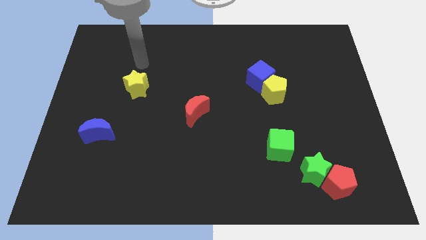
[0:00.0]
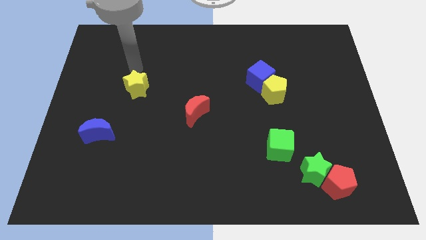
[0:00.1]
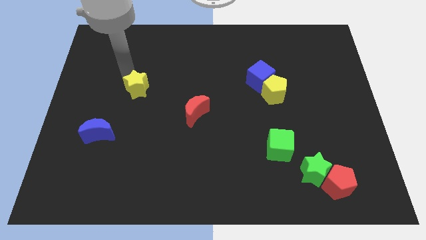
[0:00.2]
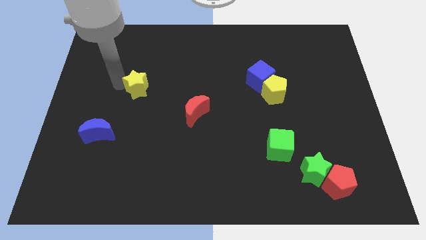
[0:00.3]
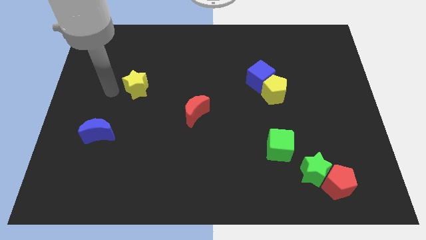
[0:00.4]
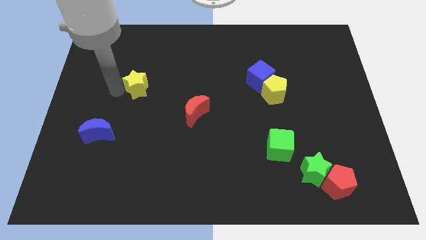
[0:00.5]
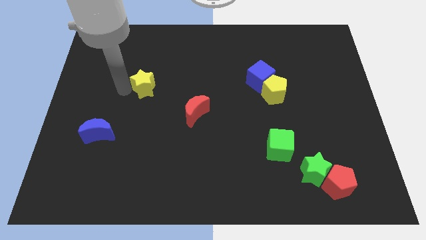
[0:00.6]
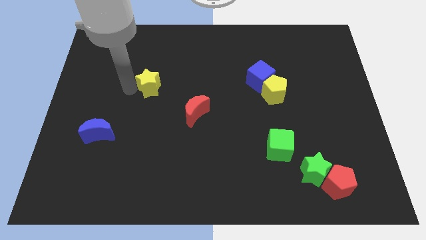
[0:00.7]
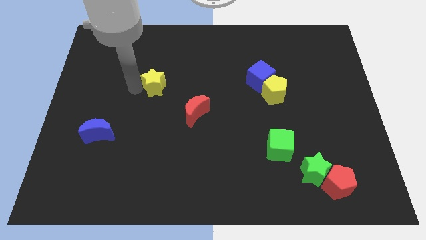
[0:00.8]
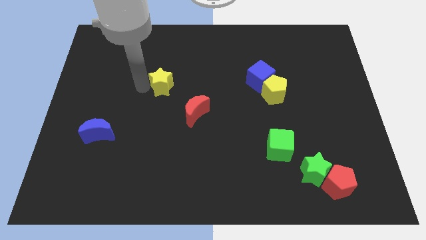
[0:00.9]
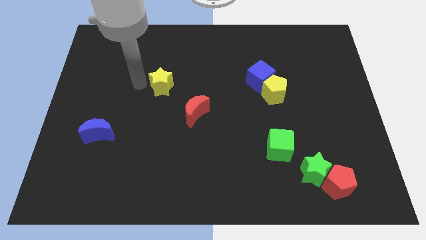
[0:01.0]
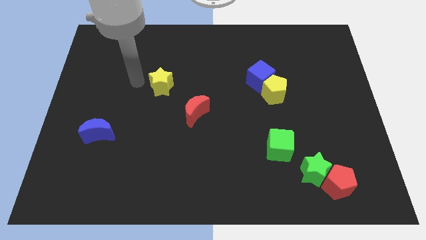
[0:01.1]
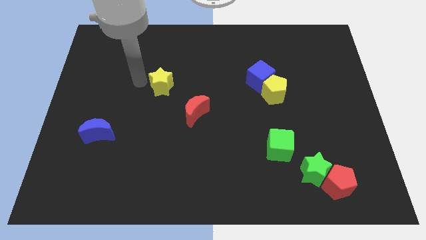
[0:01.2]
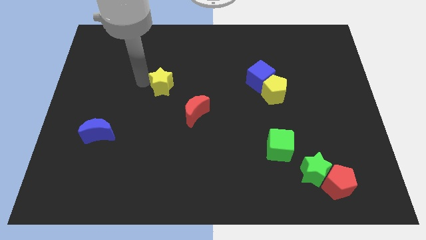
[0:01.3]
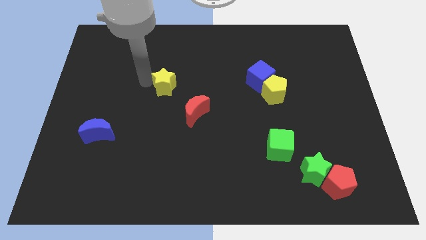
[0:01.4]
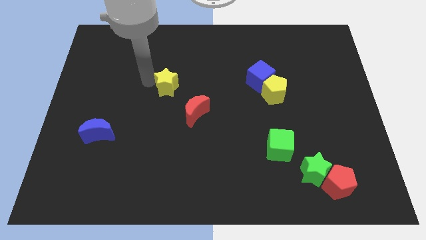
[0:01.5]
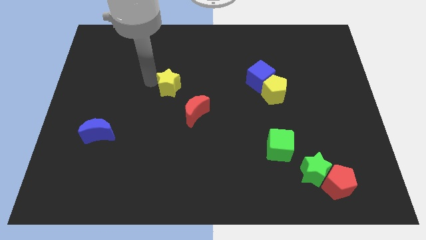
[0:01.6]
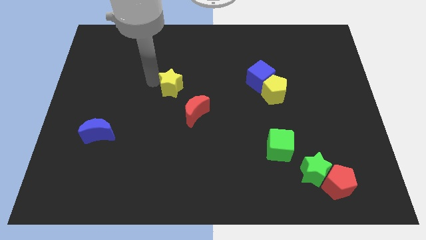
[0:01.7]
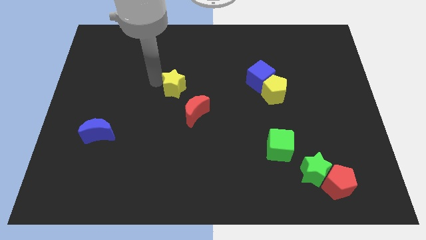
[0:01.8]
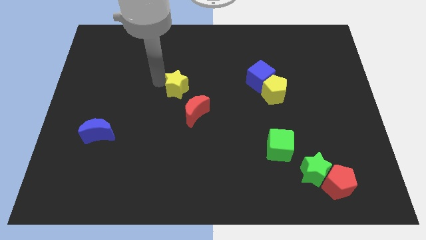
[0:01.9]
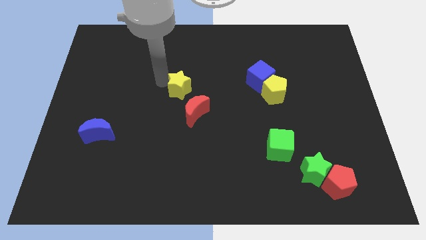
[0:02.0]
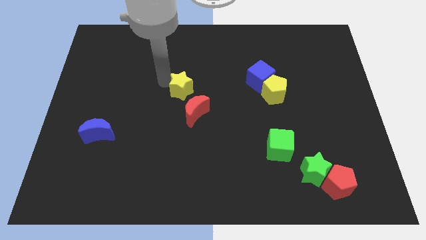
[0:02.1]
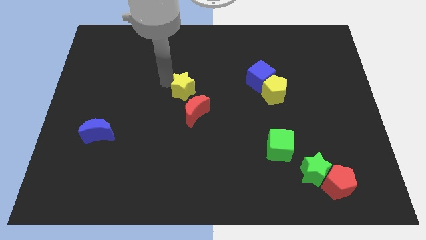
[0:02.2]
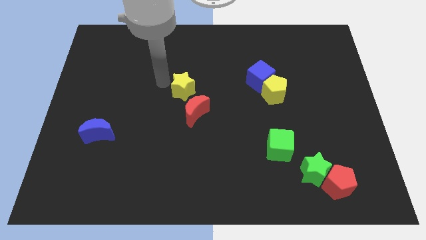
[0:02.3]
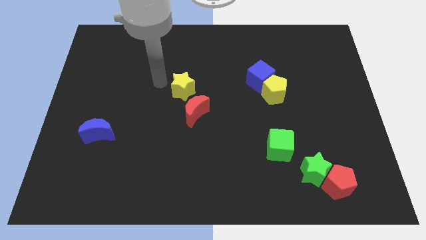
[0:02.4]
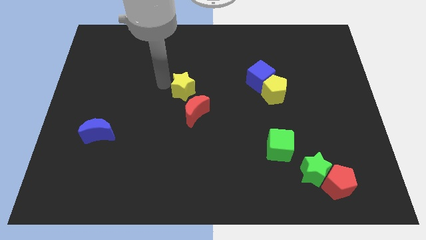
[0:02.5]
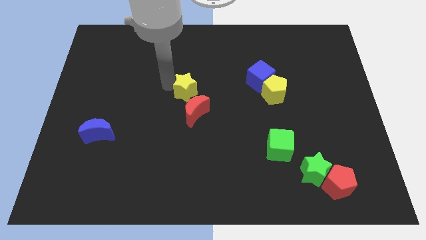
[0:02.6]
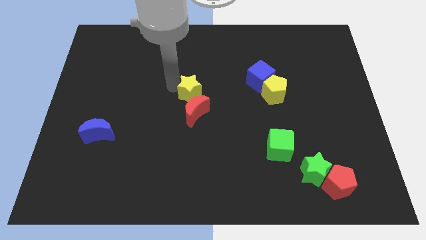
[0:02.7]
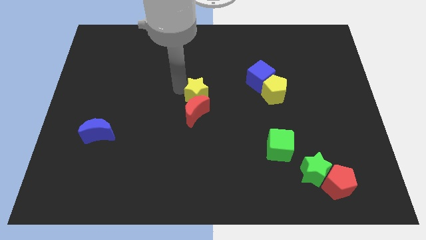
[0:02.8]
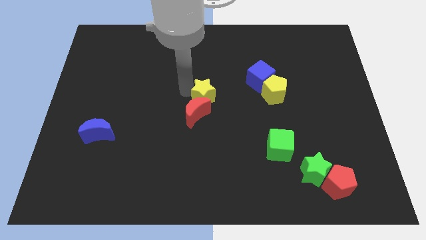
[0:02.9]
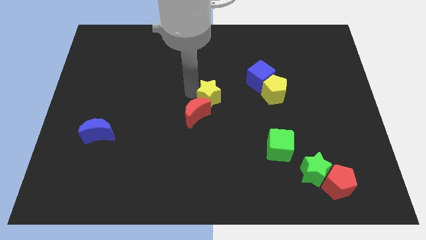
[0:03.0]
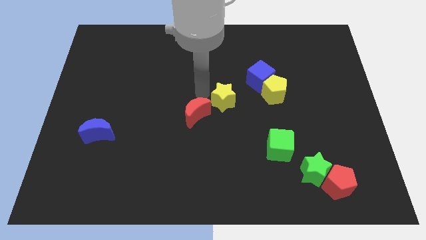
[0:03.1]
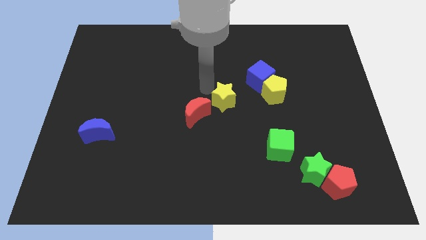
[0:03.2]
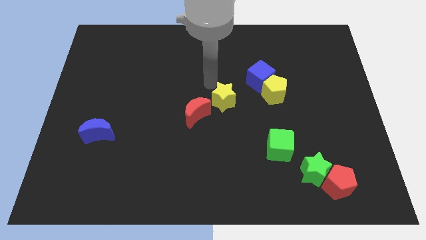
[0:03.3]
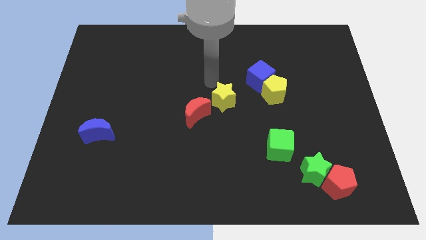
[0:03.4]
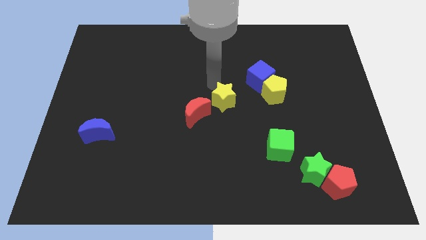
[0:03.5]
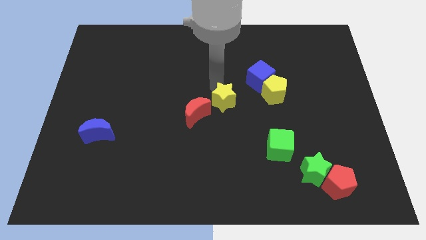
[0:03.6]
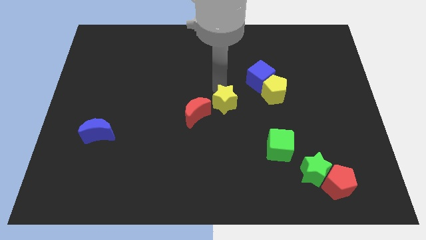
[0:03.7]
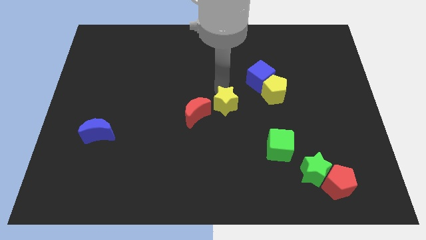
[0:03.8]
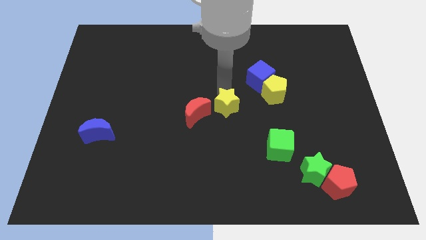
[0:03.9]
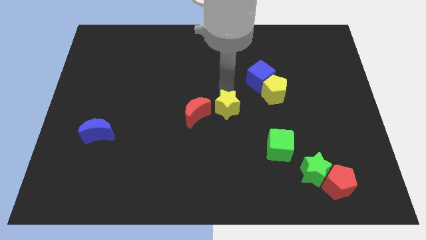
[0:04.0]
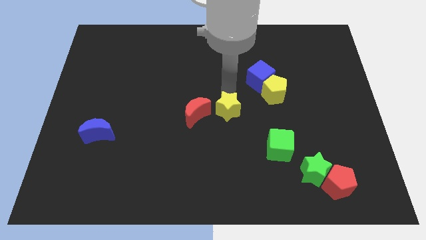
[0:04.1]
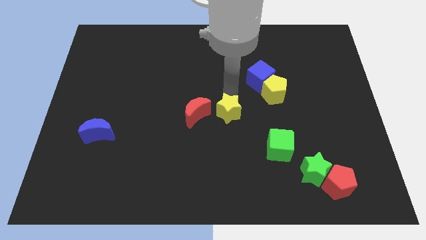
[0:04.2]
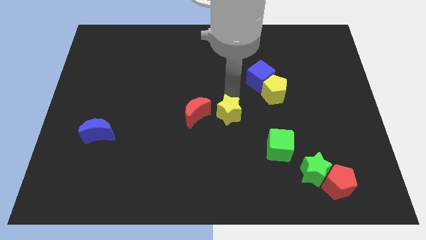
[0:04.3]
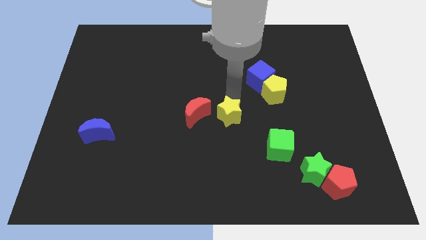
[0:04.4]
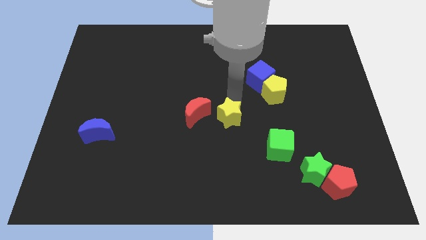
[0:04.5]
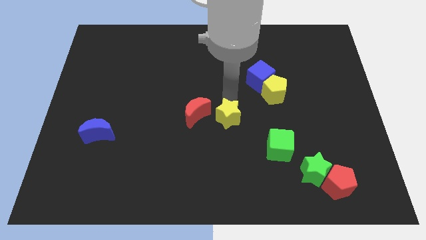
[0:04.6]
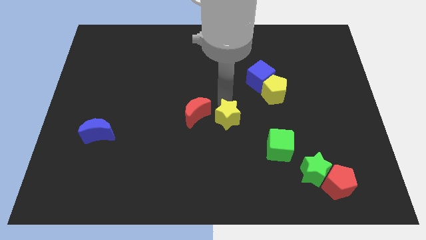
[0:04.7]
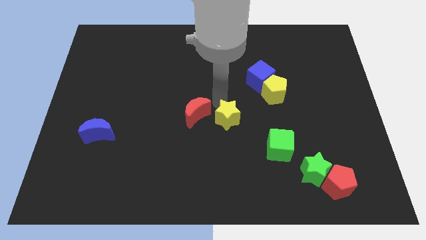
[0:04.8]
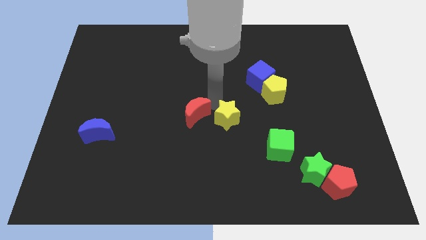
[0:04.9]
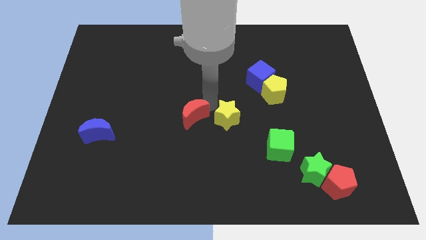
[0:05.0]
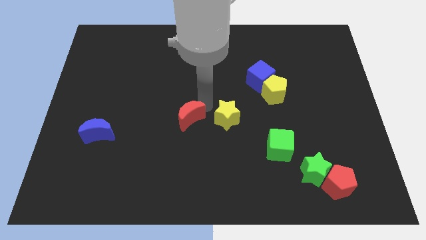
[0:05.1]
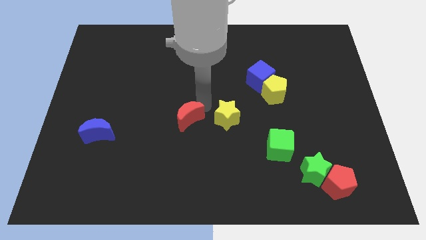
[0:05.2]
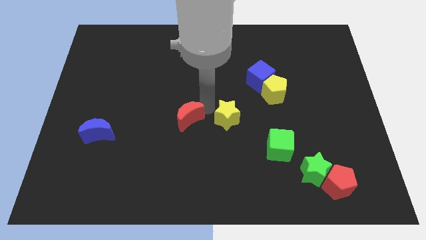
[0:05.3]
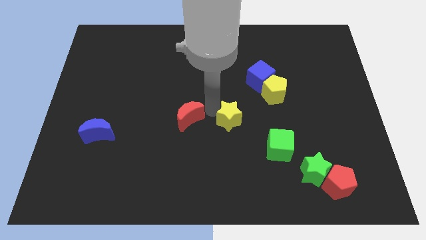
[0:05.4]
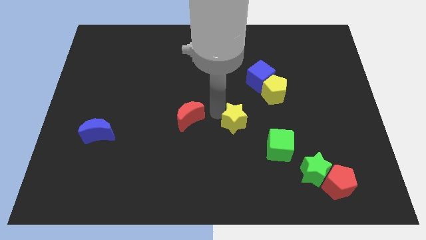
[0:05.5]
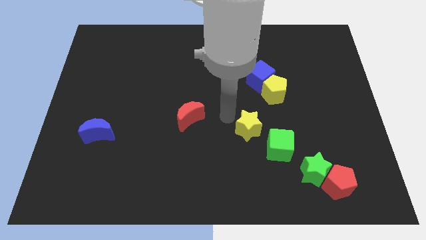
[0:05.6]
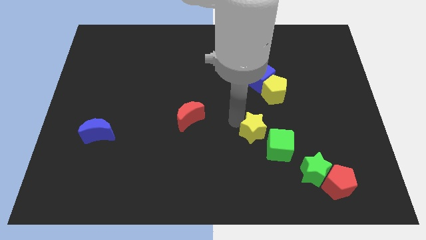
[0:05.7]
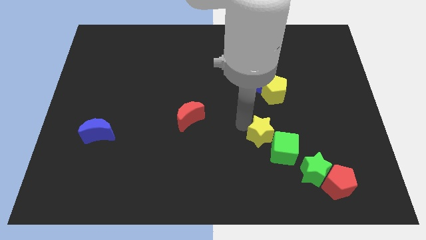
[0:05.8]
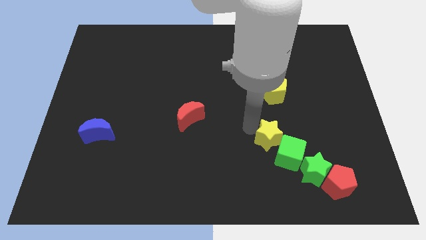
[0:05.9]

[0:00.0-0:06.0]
put the yellow star towards the green cube

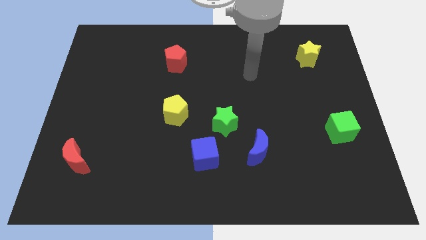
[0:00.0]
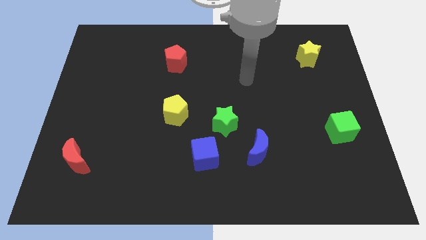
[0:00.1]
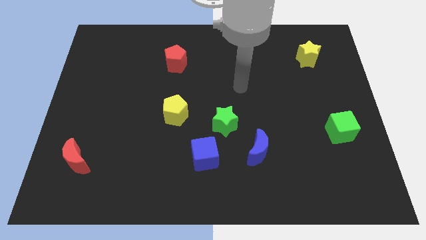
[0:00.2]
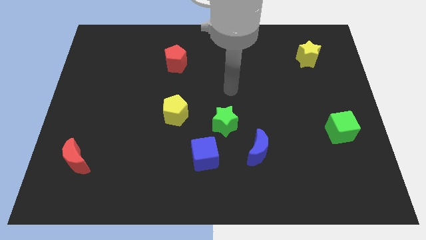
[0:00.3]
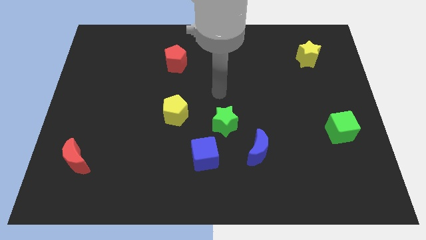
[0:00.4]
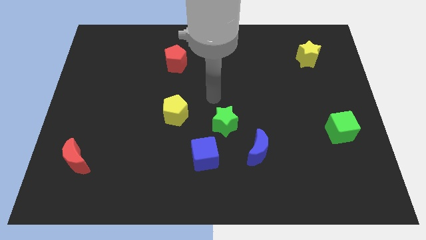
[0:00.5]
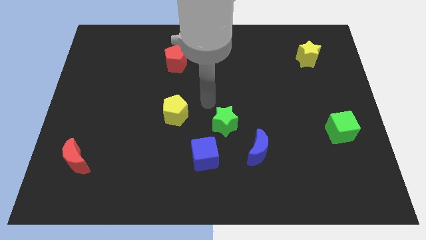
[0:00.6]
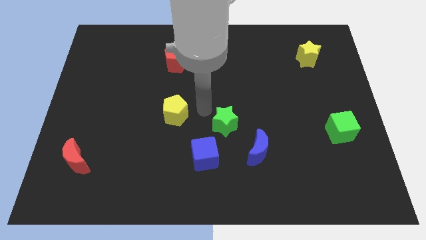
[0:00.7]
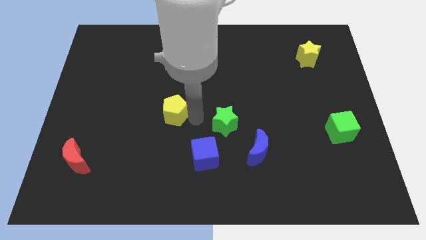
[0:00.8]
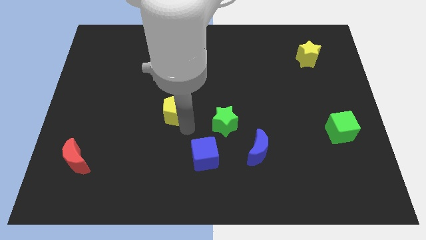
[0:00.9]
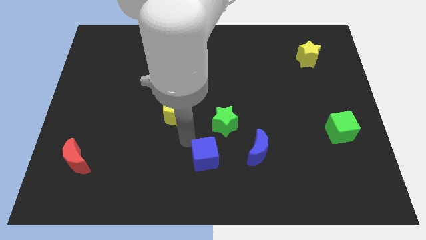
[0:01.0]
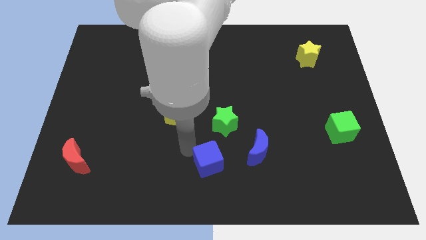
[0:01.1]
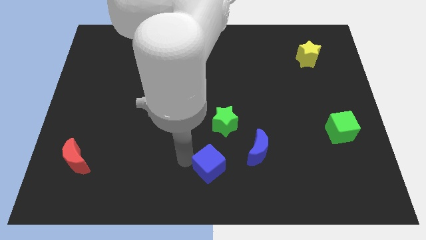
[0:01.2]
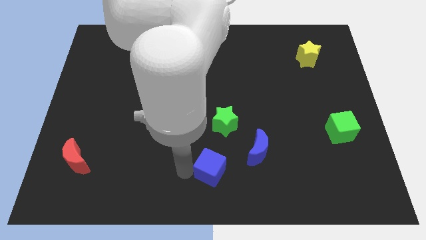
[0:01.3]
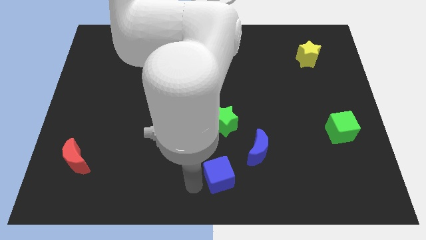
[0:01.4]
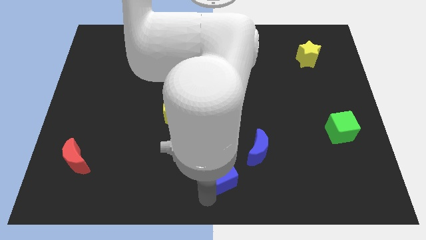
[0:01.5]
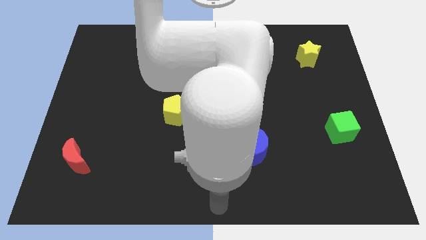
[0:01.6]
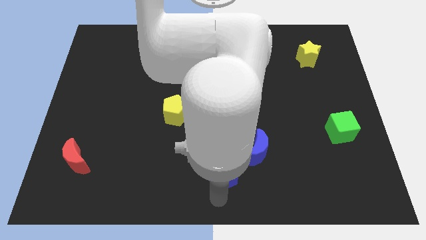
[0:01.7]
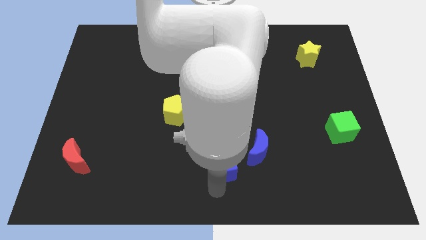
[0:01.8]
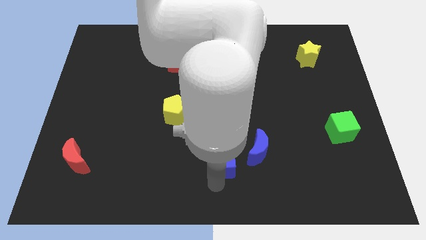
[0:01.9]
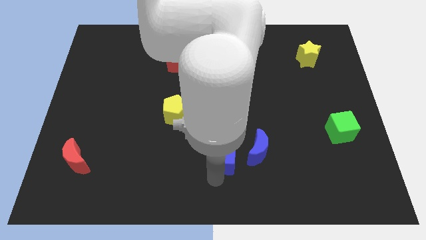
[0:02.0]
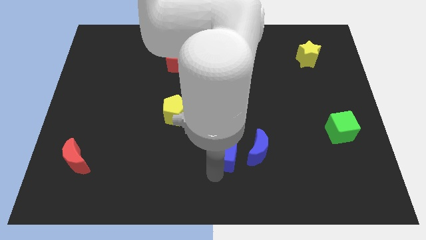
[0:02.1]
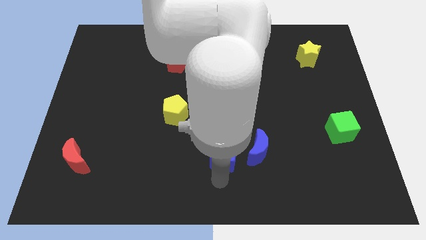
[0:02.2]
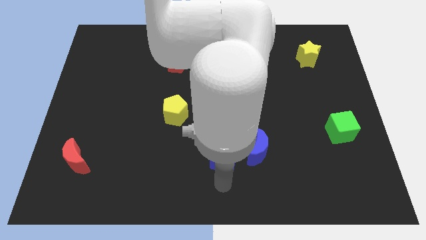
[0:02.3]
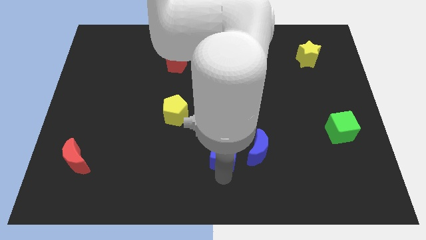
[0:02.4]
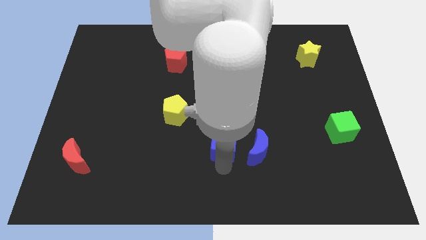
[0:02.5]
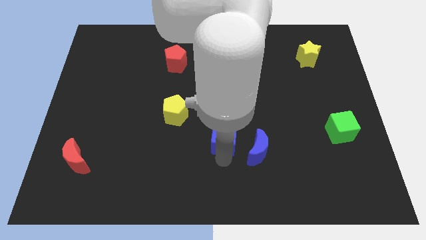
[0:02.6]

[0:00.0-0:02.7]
put the blue cube to the green star

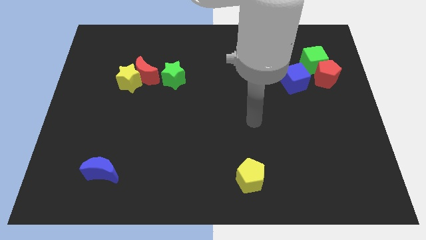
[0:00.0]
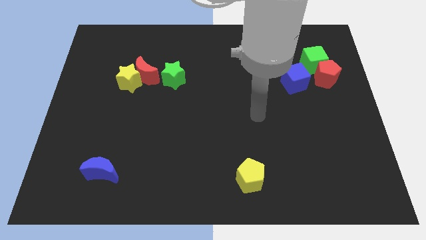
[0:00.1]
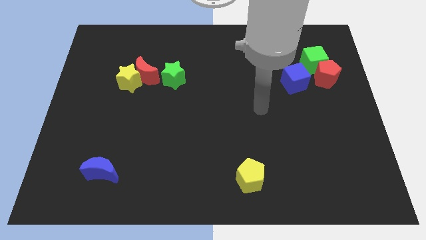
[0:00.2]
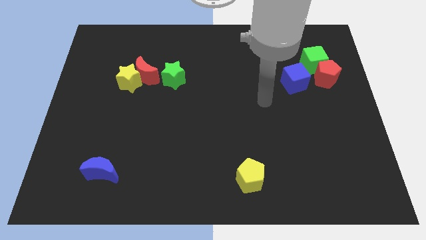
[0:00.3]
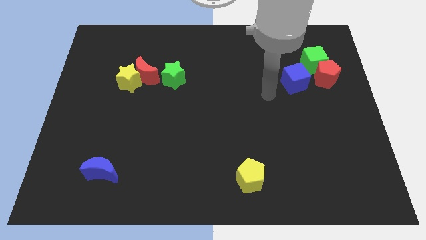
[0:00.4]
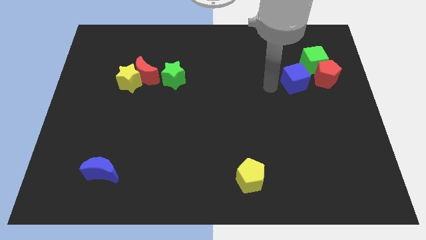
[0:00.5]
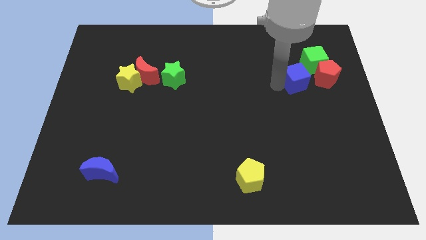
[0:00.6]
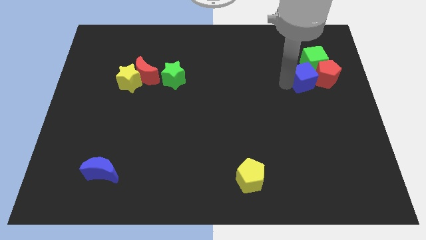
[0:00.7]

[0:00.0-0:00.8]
move the blue cube to the red pentagon
